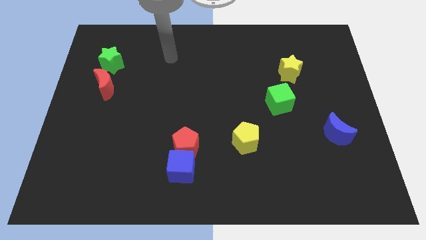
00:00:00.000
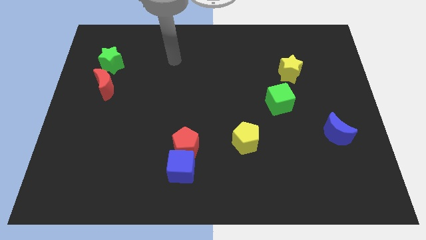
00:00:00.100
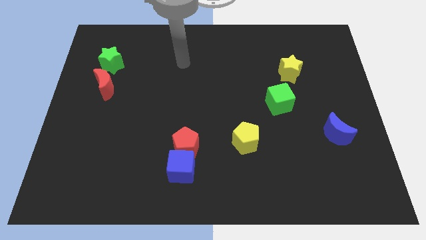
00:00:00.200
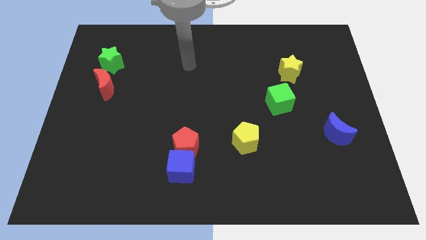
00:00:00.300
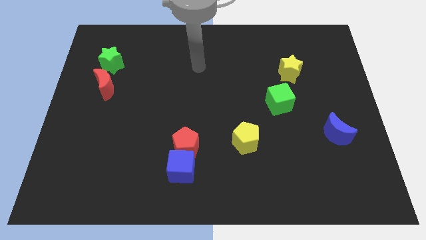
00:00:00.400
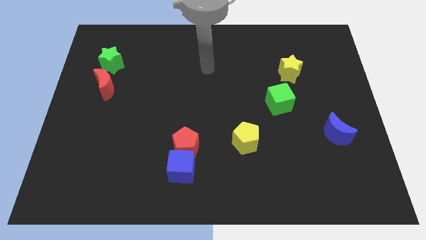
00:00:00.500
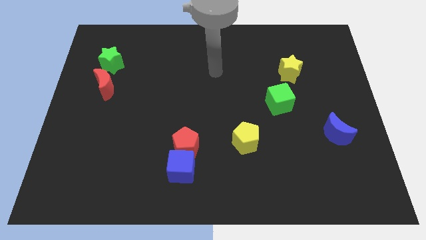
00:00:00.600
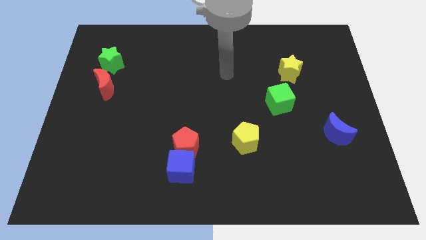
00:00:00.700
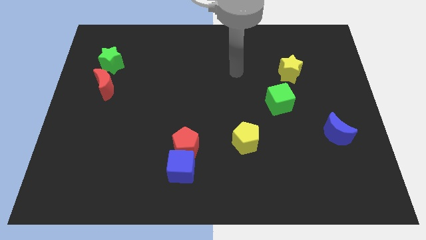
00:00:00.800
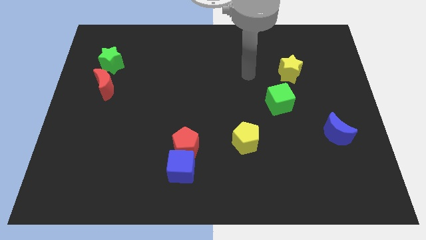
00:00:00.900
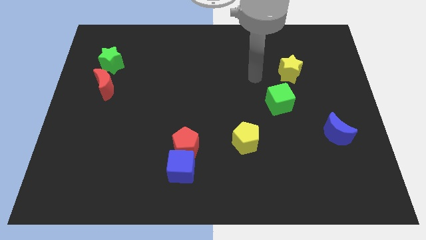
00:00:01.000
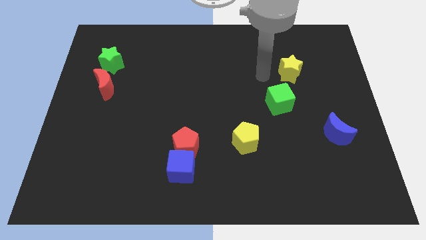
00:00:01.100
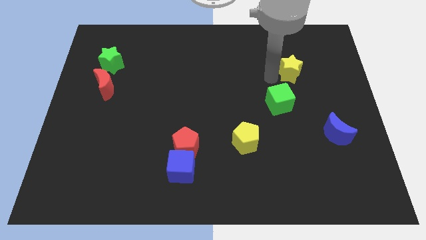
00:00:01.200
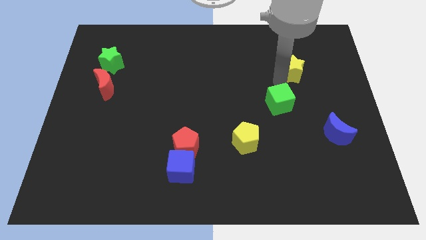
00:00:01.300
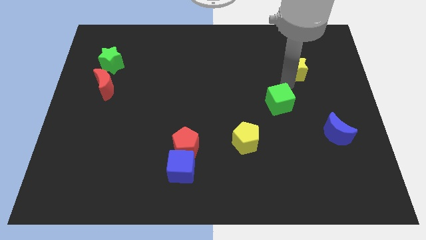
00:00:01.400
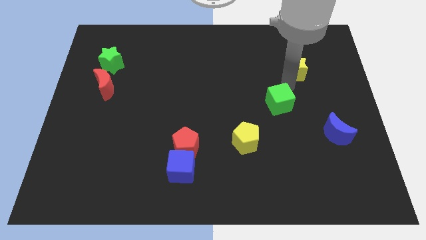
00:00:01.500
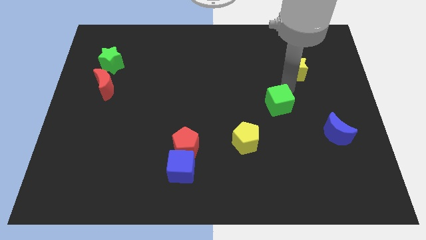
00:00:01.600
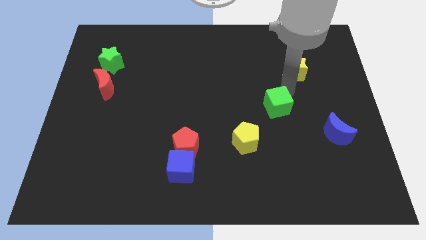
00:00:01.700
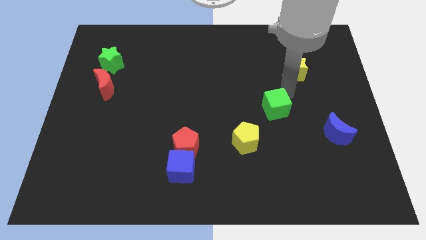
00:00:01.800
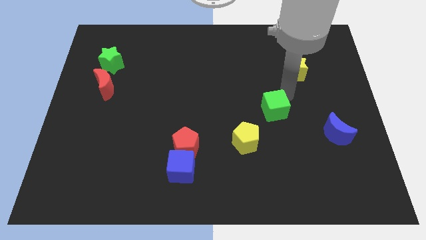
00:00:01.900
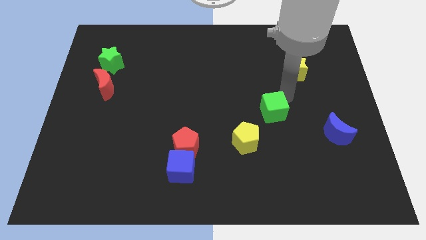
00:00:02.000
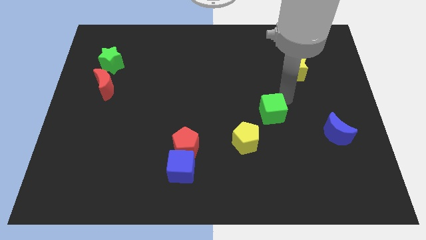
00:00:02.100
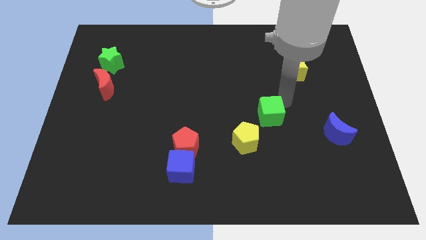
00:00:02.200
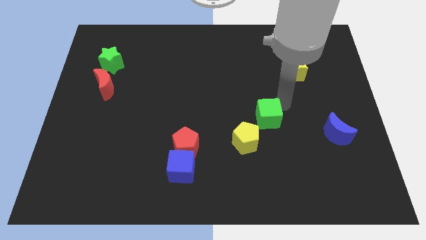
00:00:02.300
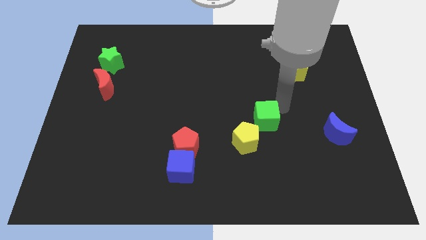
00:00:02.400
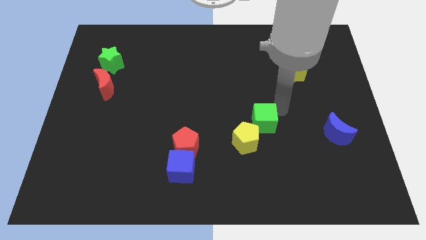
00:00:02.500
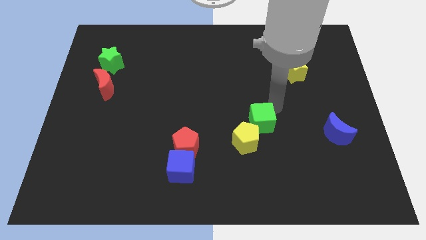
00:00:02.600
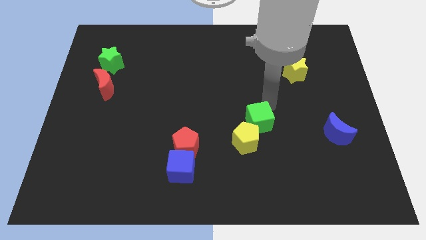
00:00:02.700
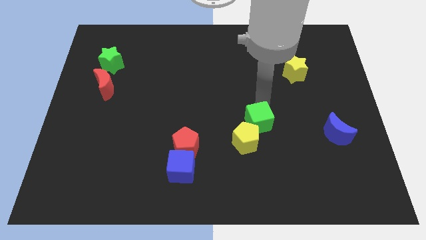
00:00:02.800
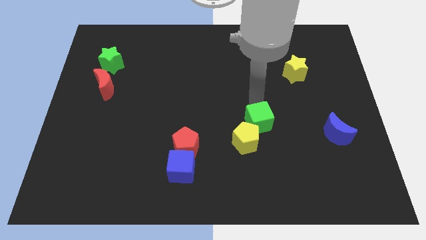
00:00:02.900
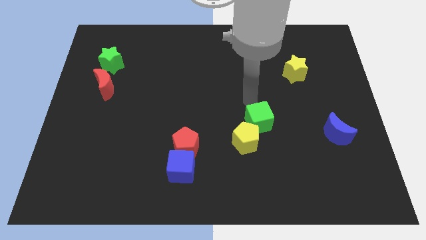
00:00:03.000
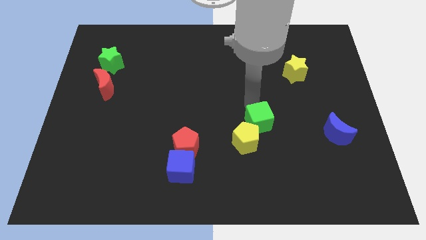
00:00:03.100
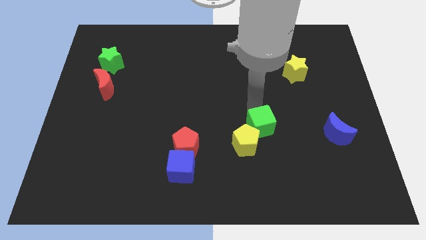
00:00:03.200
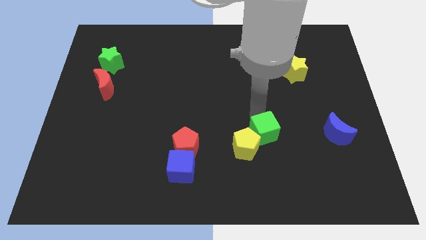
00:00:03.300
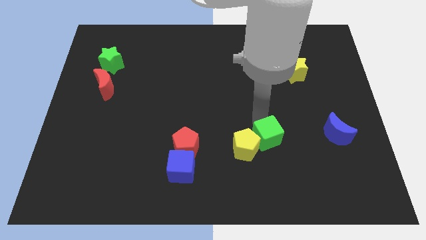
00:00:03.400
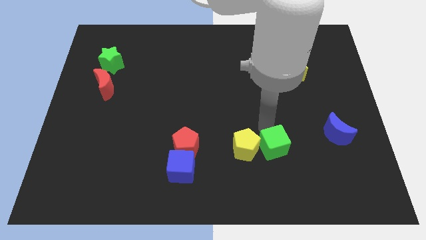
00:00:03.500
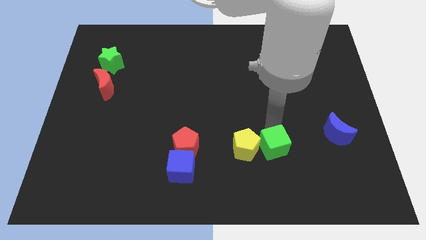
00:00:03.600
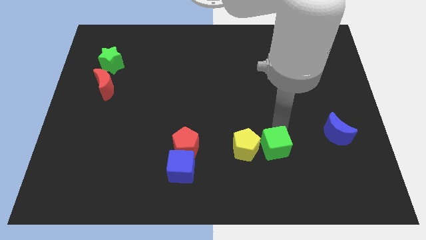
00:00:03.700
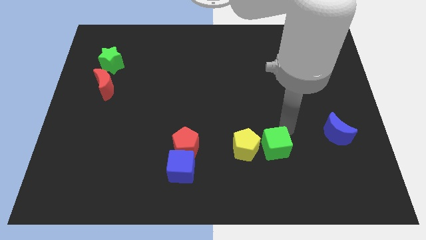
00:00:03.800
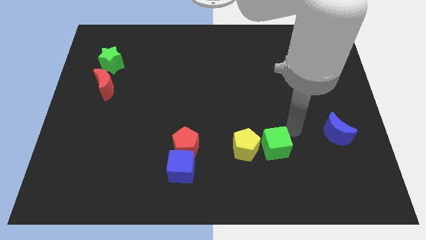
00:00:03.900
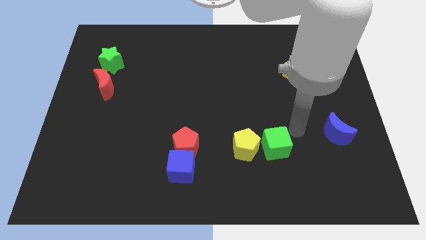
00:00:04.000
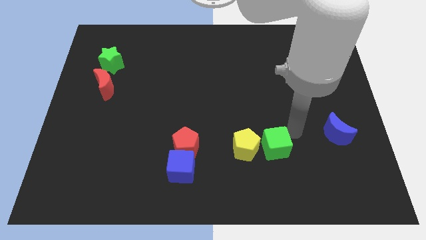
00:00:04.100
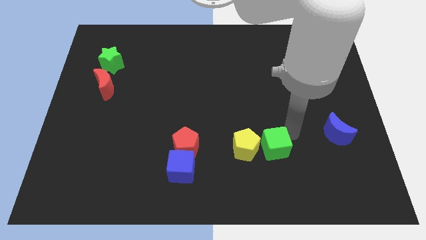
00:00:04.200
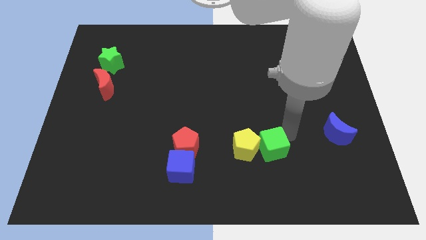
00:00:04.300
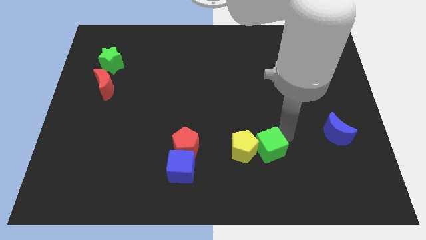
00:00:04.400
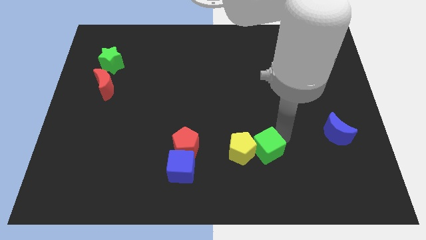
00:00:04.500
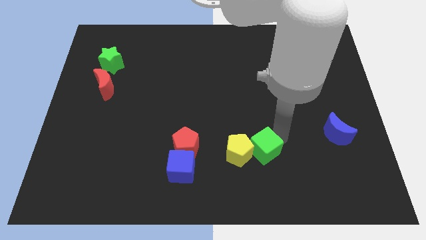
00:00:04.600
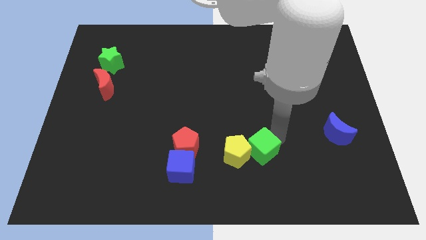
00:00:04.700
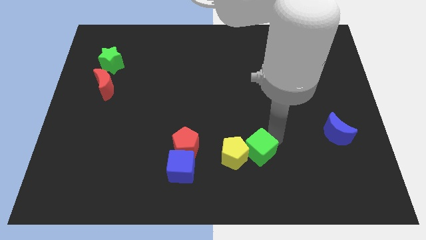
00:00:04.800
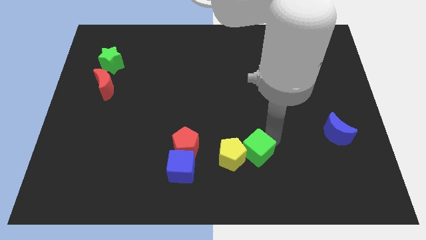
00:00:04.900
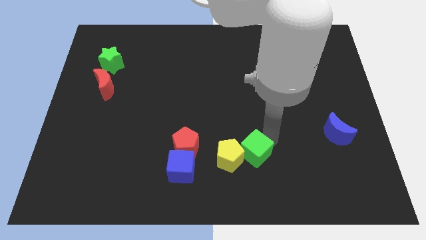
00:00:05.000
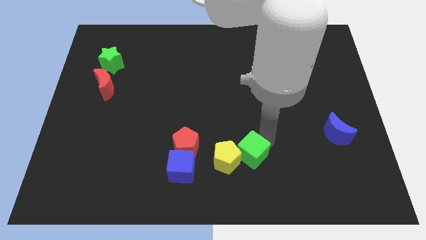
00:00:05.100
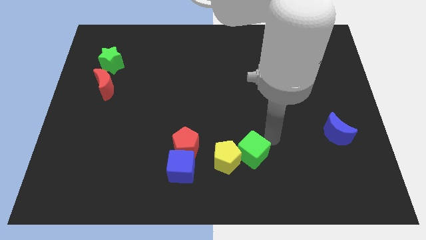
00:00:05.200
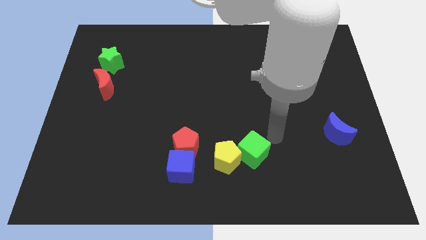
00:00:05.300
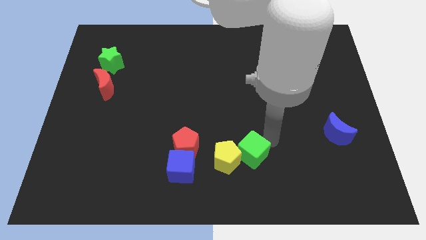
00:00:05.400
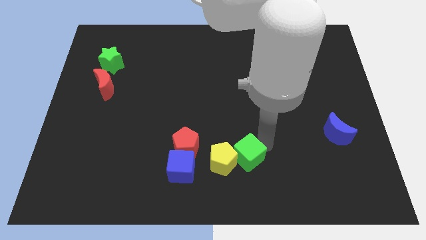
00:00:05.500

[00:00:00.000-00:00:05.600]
push the green cube to the right of the blue cube

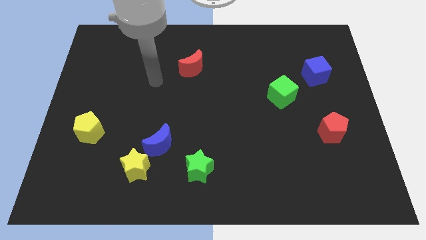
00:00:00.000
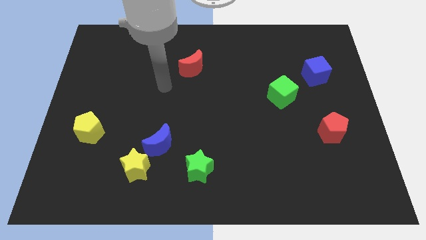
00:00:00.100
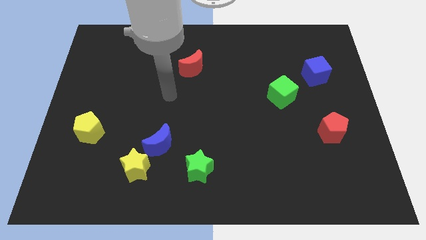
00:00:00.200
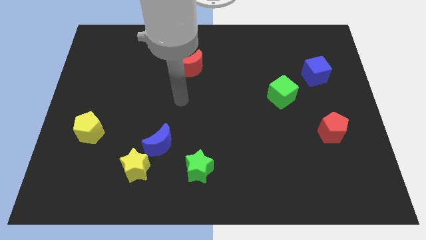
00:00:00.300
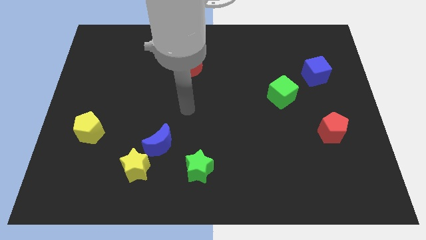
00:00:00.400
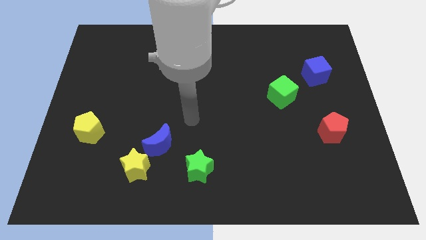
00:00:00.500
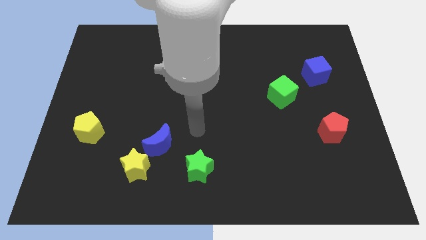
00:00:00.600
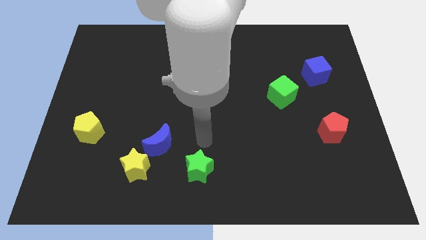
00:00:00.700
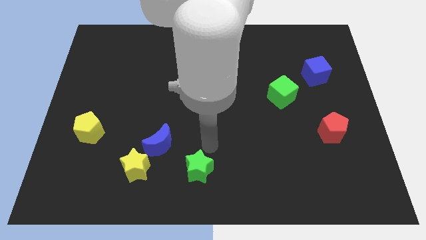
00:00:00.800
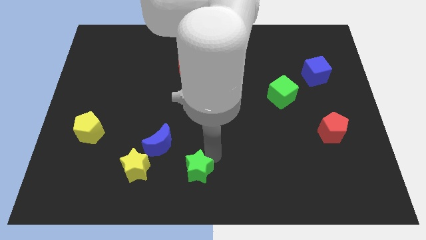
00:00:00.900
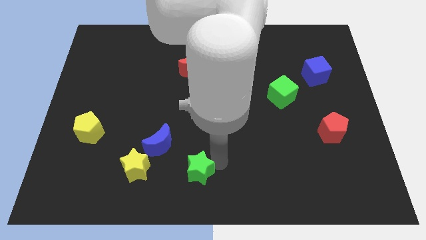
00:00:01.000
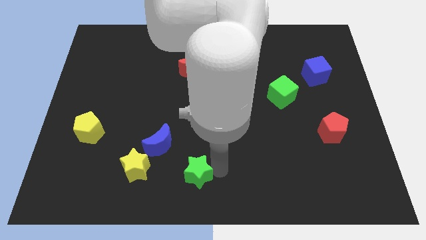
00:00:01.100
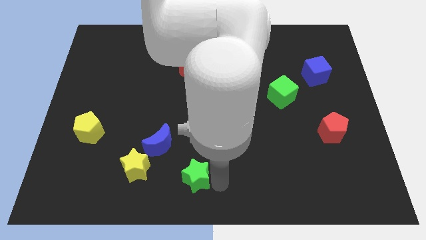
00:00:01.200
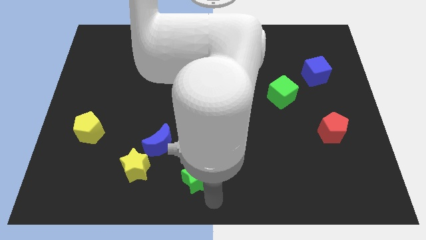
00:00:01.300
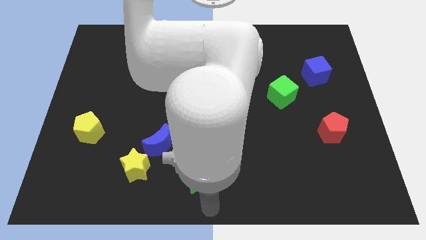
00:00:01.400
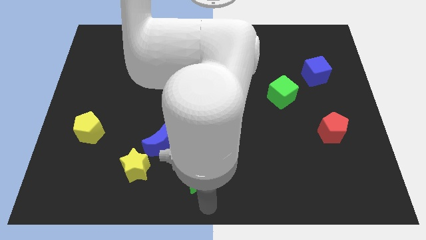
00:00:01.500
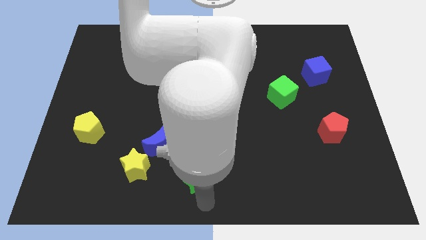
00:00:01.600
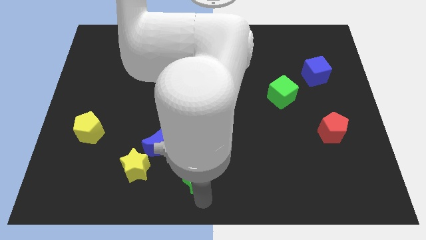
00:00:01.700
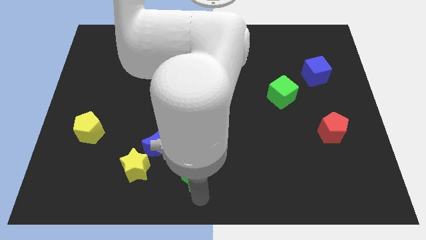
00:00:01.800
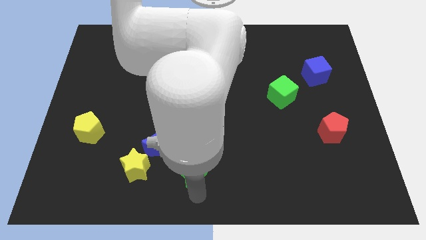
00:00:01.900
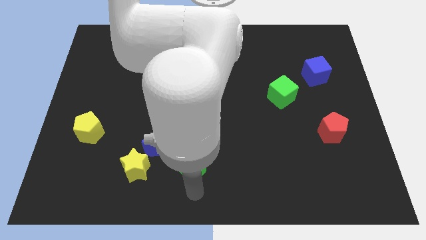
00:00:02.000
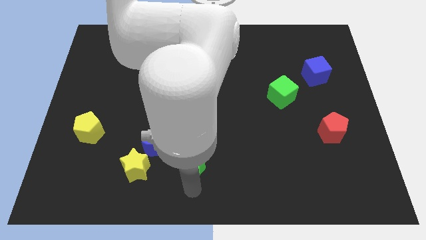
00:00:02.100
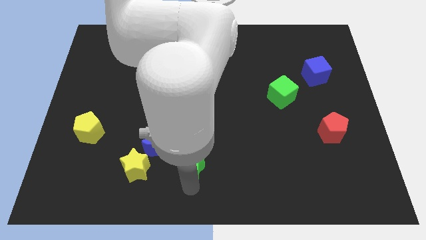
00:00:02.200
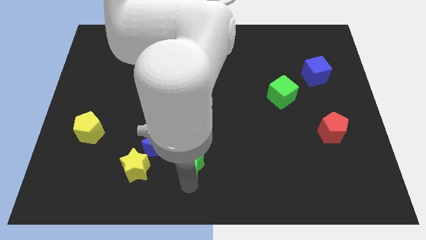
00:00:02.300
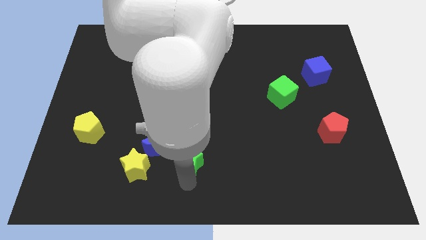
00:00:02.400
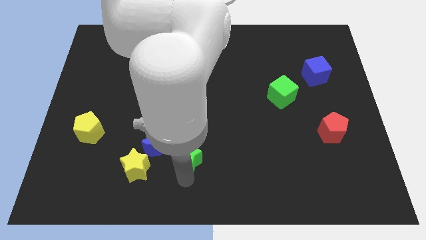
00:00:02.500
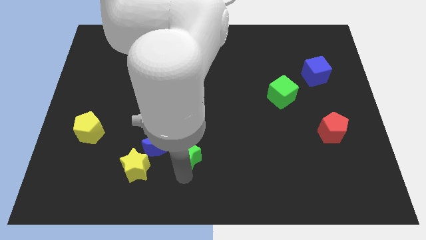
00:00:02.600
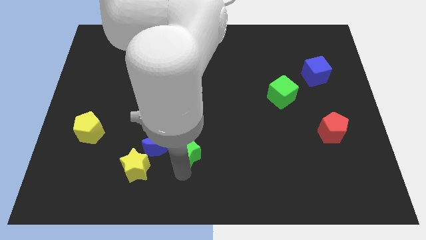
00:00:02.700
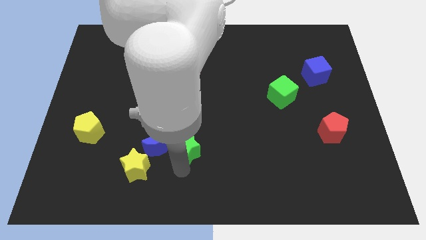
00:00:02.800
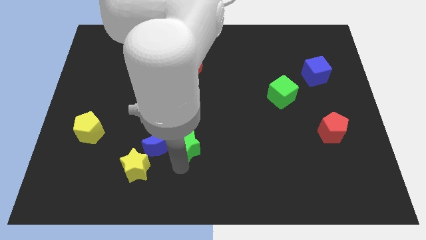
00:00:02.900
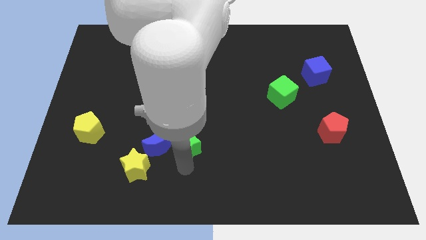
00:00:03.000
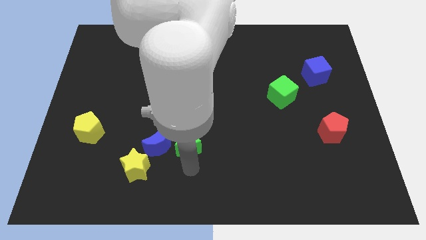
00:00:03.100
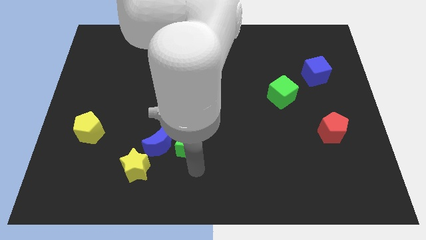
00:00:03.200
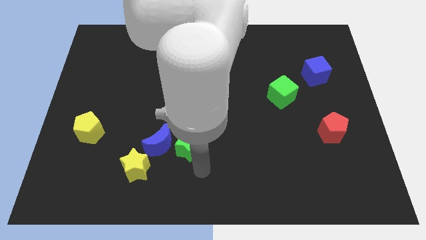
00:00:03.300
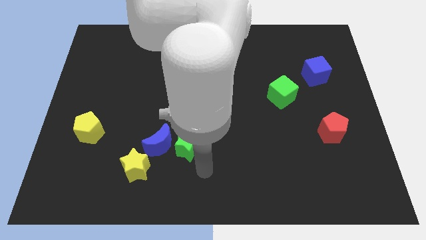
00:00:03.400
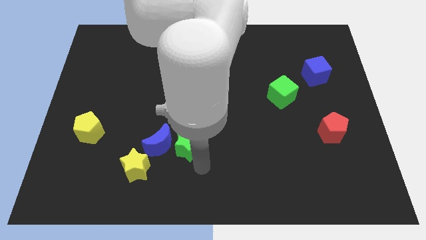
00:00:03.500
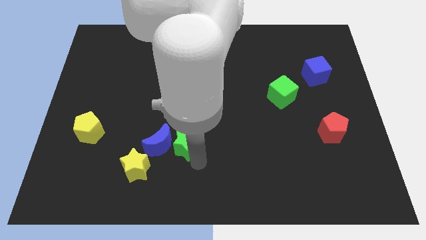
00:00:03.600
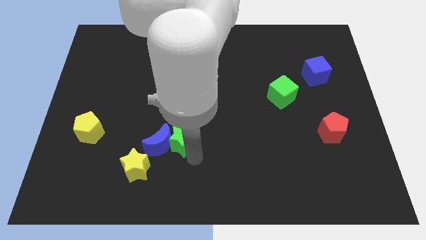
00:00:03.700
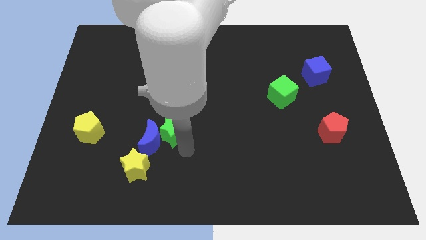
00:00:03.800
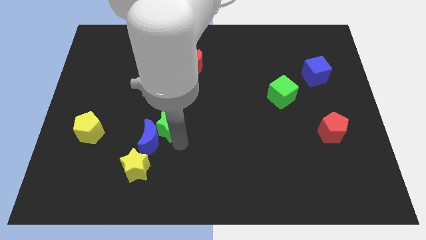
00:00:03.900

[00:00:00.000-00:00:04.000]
put the green star above the blue moon
